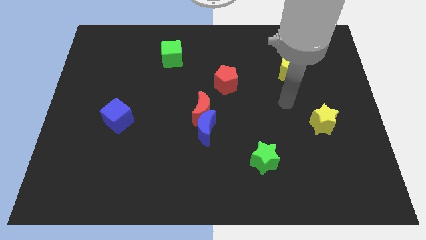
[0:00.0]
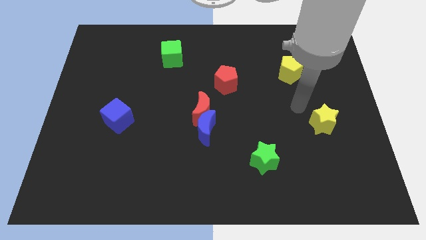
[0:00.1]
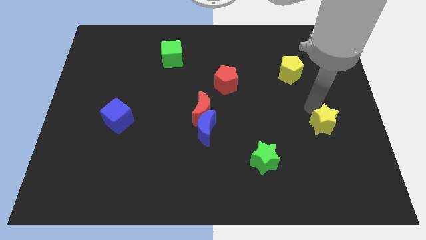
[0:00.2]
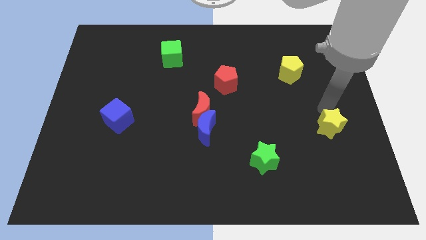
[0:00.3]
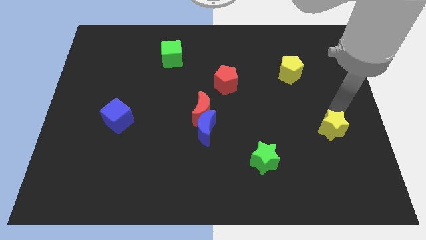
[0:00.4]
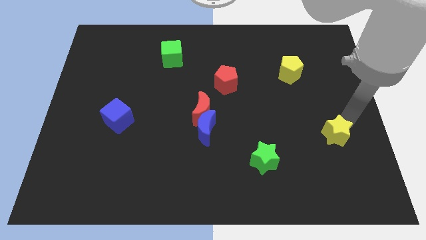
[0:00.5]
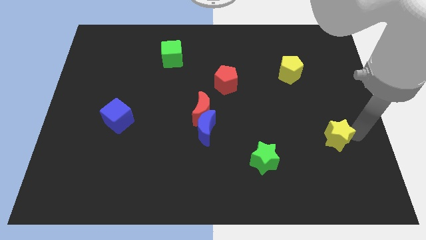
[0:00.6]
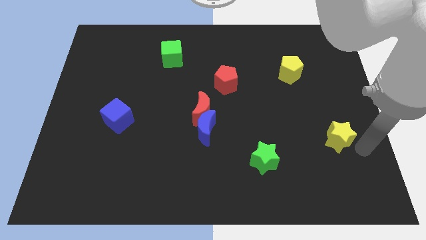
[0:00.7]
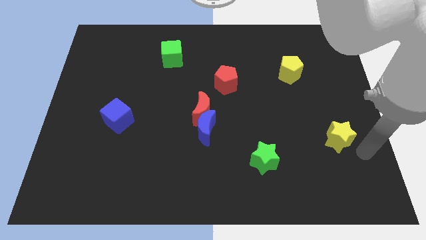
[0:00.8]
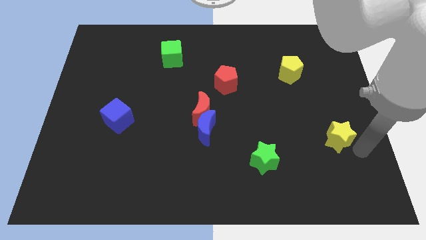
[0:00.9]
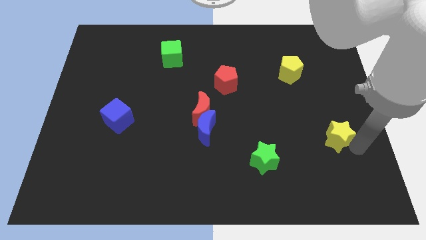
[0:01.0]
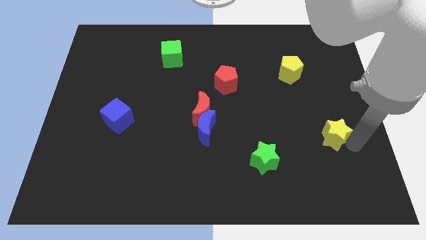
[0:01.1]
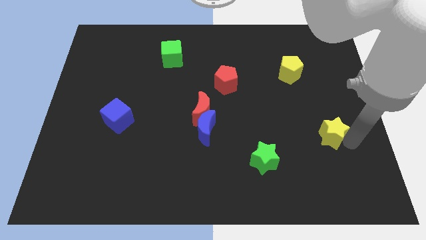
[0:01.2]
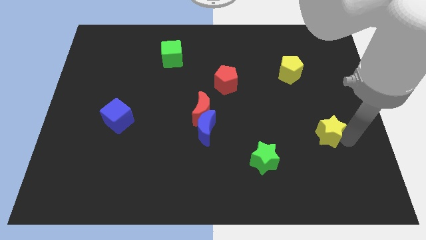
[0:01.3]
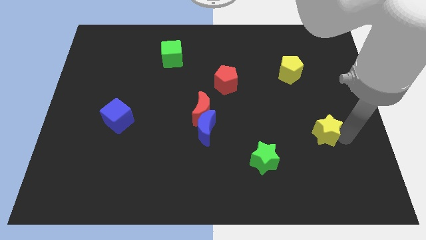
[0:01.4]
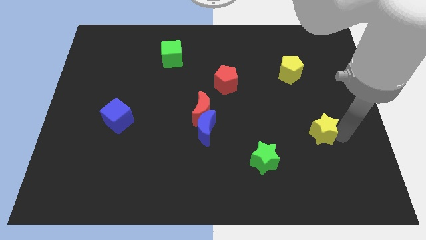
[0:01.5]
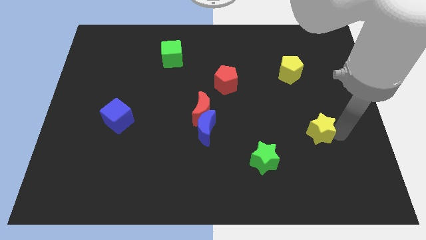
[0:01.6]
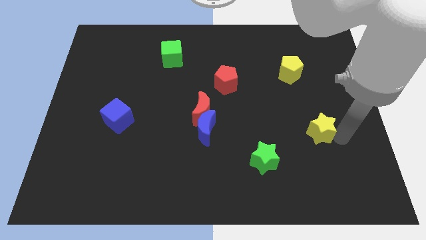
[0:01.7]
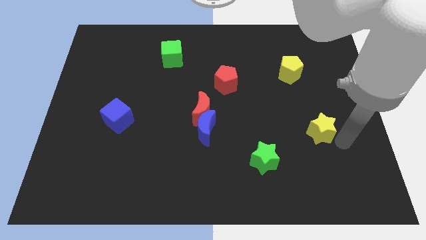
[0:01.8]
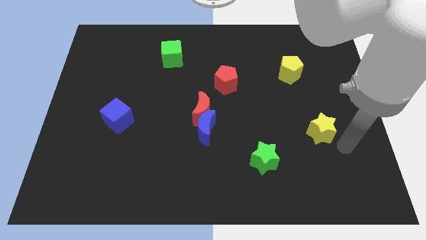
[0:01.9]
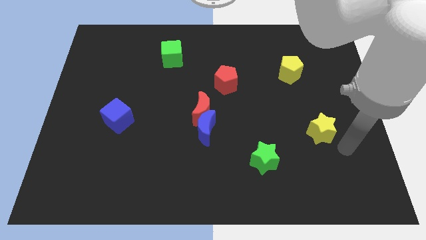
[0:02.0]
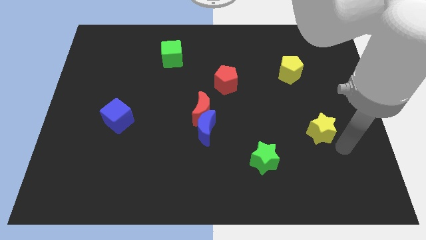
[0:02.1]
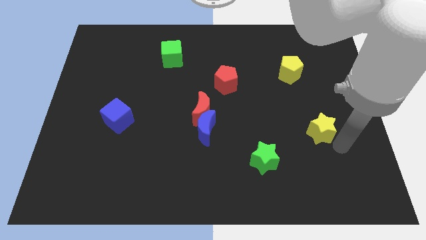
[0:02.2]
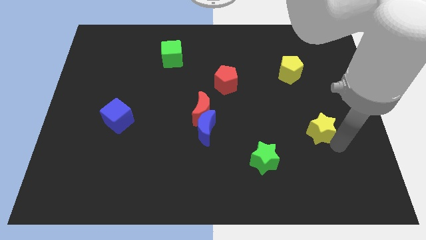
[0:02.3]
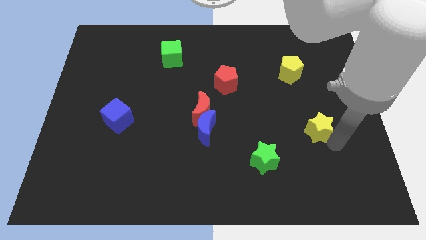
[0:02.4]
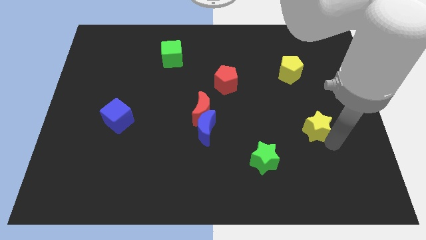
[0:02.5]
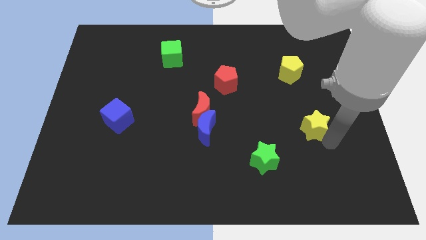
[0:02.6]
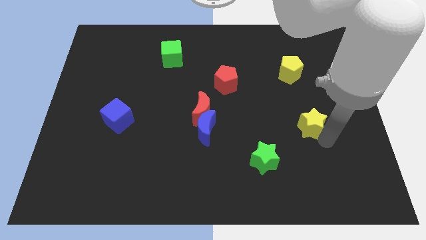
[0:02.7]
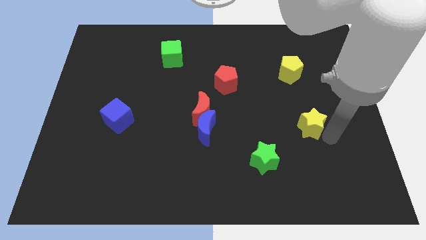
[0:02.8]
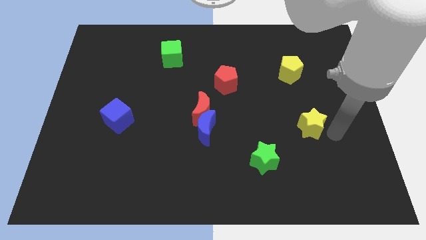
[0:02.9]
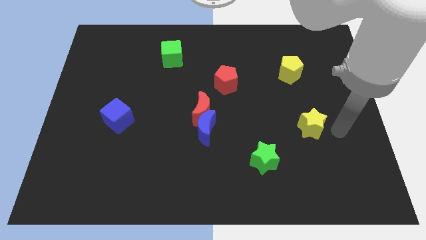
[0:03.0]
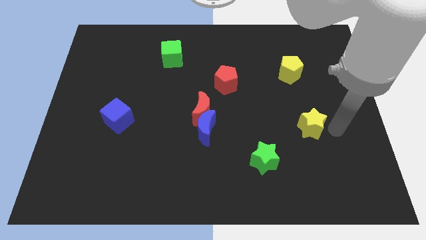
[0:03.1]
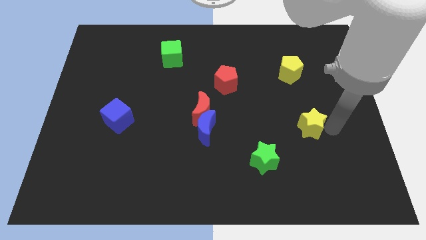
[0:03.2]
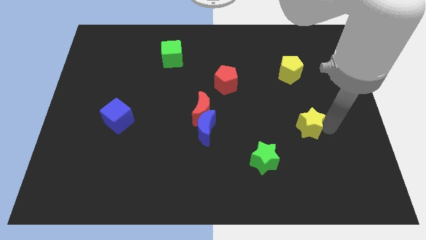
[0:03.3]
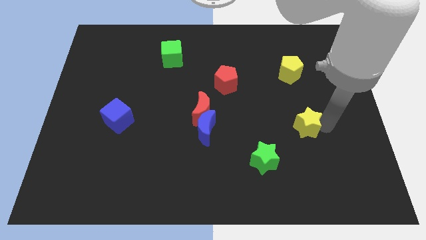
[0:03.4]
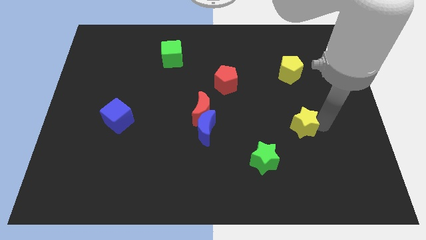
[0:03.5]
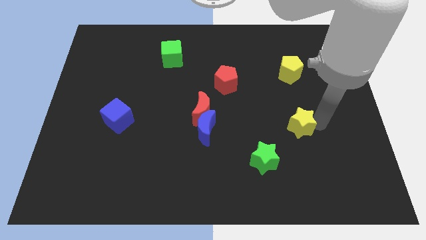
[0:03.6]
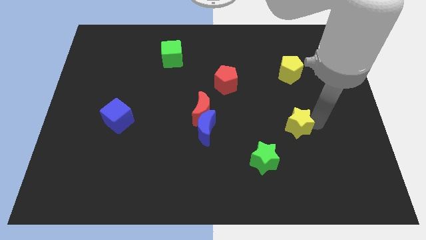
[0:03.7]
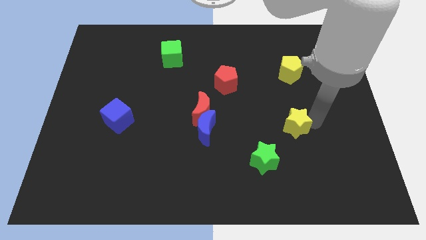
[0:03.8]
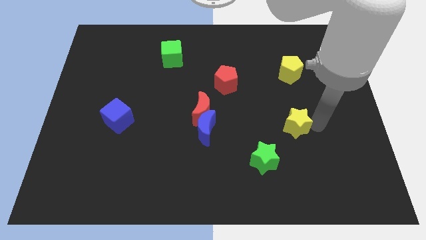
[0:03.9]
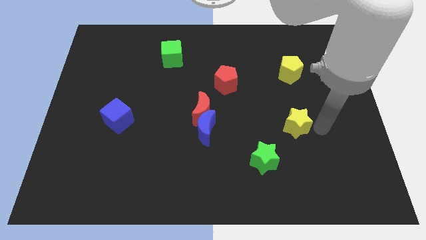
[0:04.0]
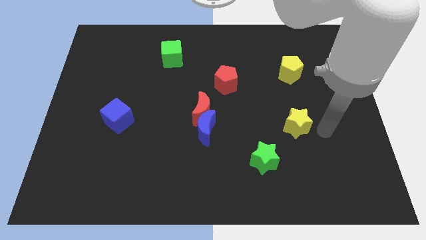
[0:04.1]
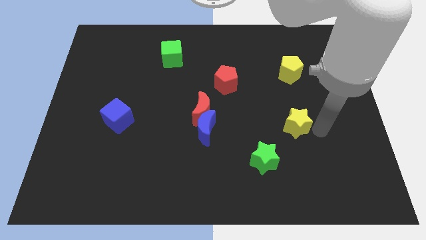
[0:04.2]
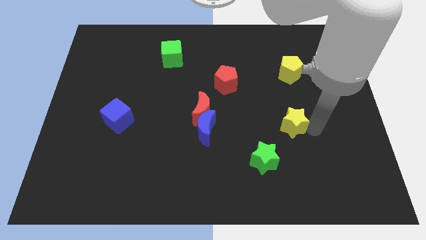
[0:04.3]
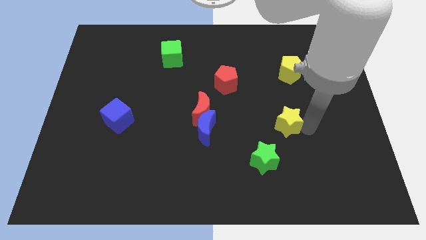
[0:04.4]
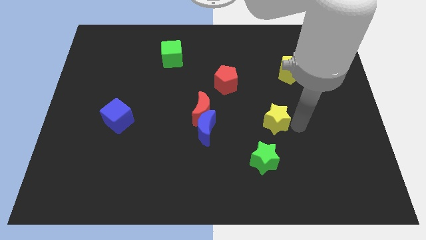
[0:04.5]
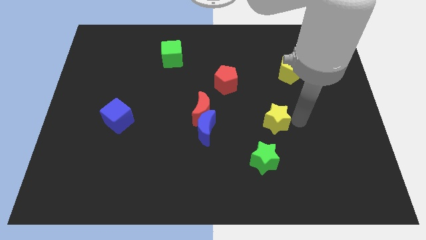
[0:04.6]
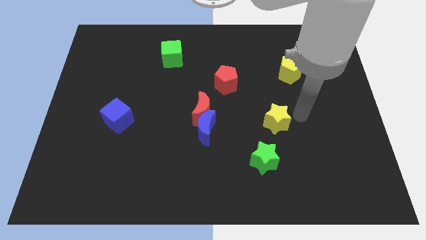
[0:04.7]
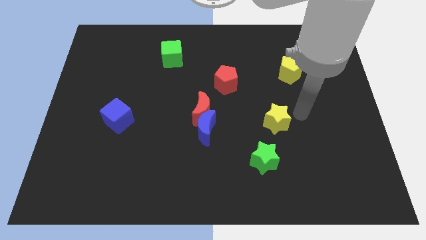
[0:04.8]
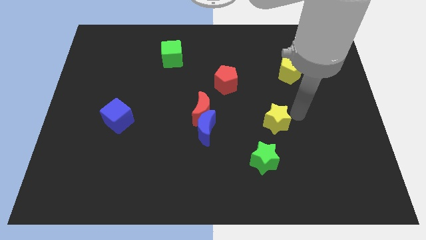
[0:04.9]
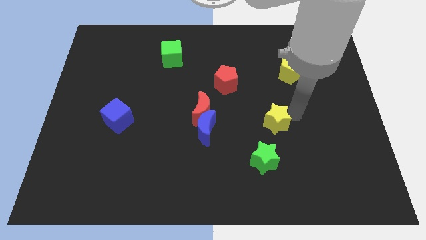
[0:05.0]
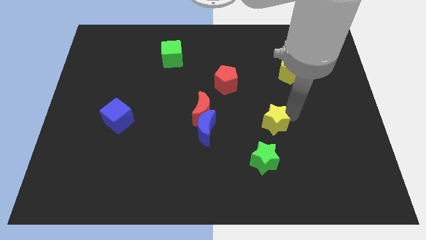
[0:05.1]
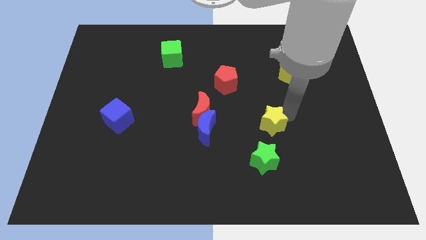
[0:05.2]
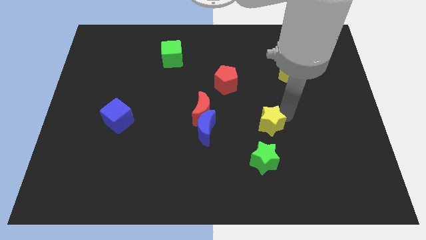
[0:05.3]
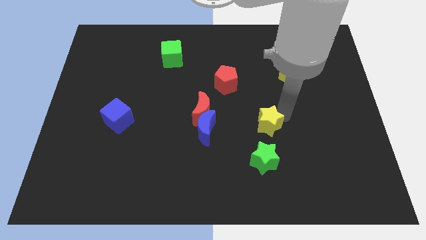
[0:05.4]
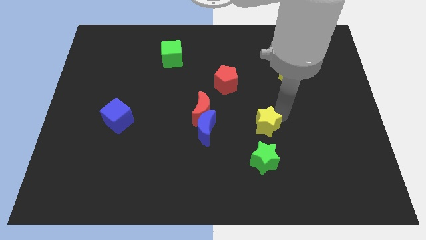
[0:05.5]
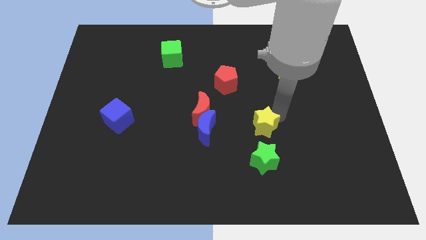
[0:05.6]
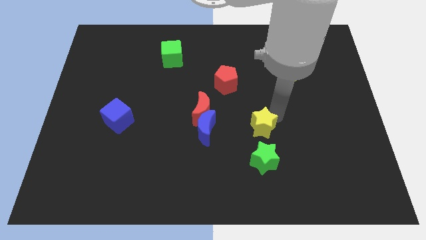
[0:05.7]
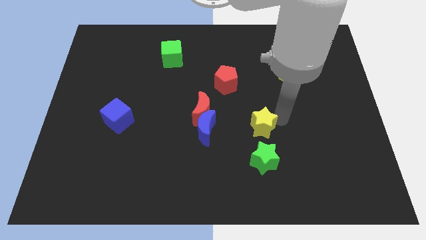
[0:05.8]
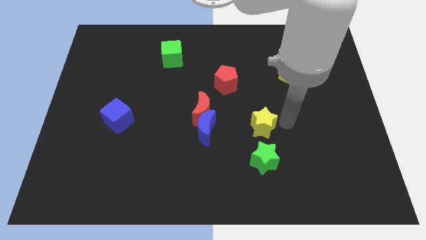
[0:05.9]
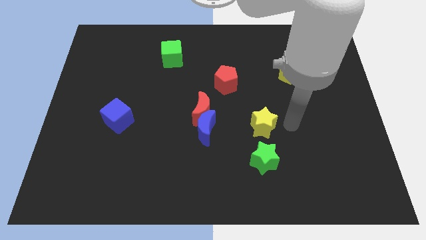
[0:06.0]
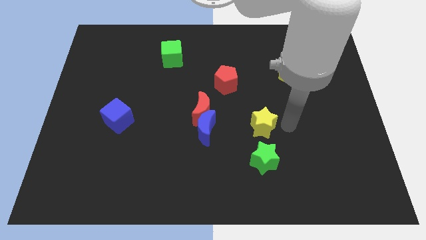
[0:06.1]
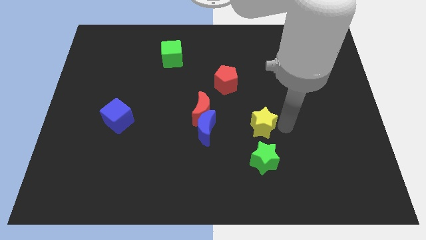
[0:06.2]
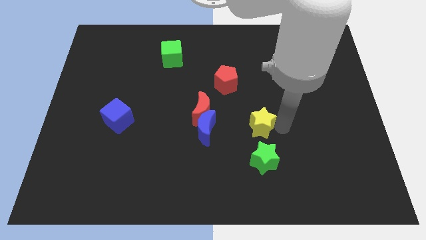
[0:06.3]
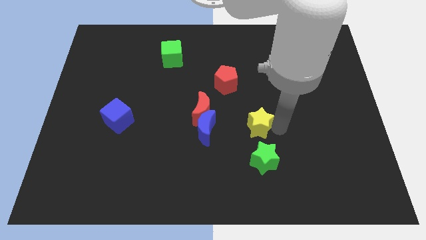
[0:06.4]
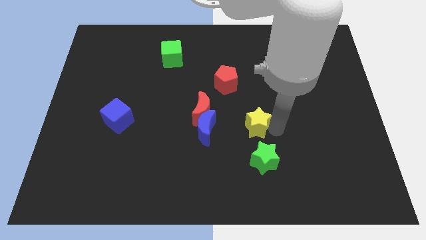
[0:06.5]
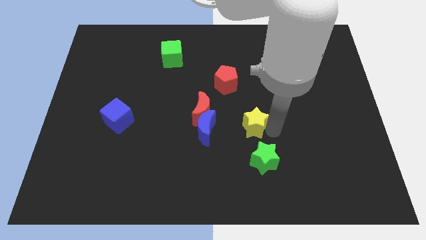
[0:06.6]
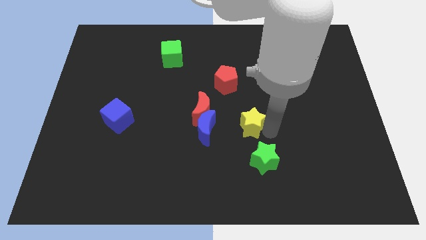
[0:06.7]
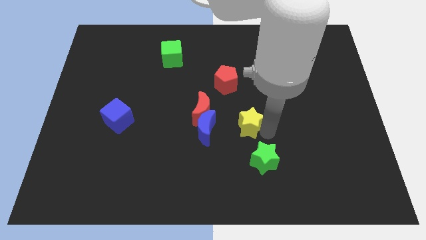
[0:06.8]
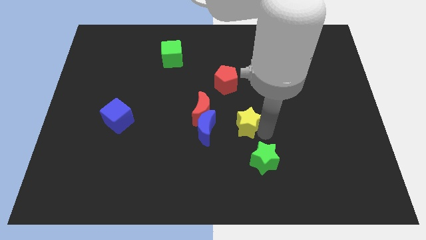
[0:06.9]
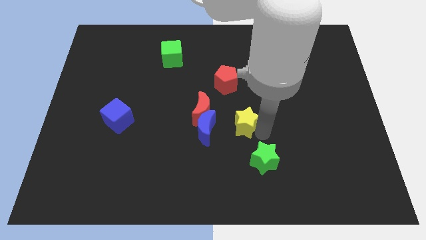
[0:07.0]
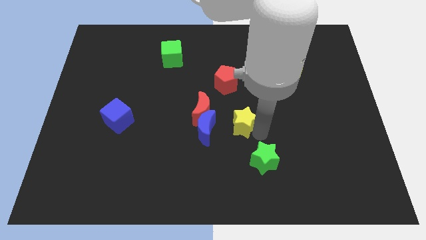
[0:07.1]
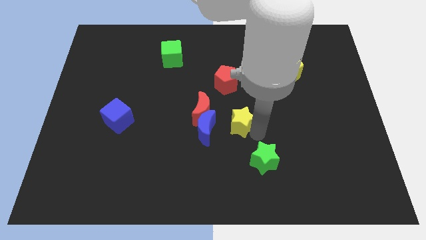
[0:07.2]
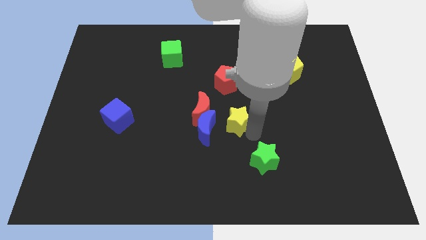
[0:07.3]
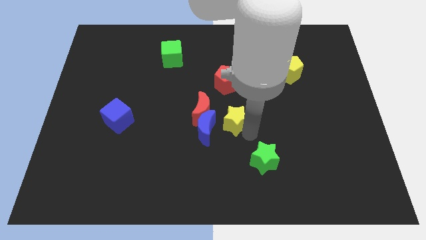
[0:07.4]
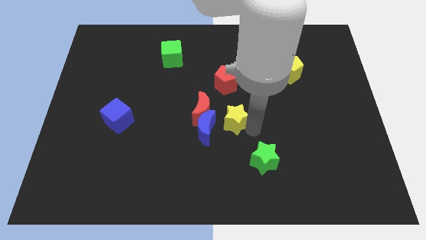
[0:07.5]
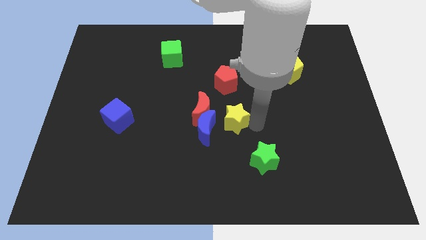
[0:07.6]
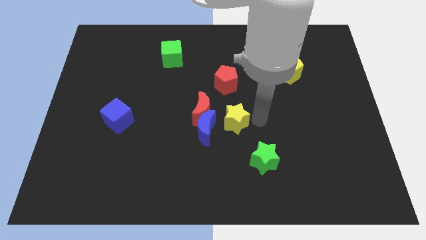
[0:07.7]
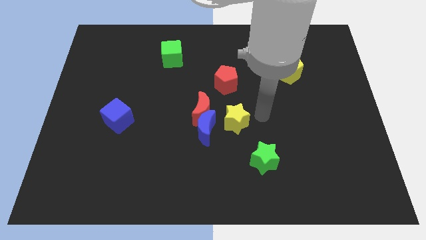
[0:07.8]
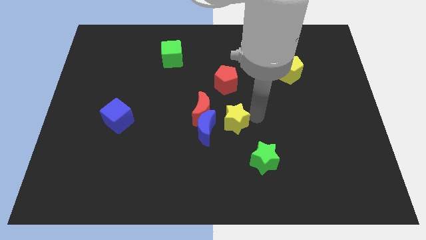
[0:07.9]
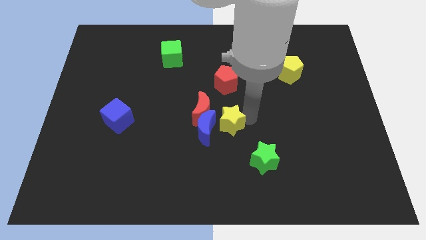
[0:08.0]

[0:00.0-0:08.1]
push the yellow star next to the blue moon
